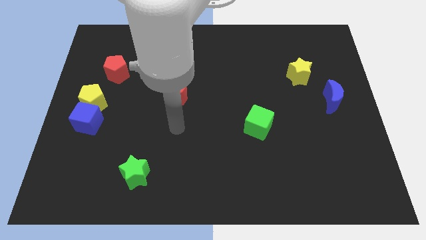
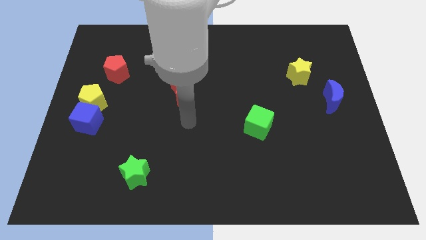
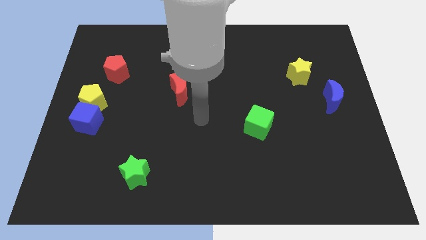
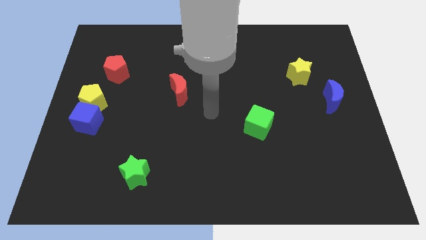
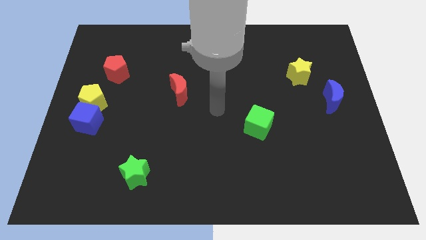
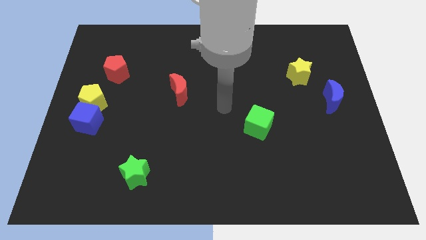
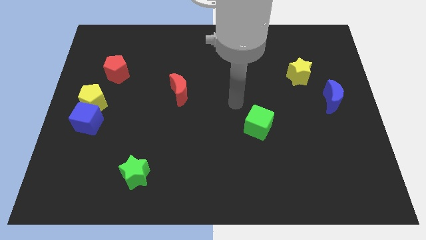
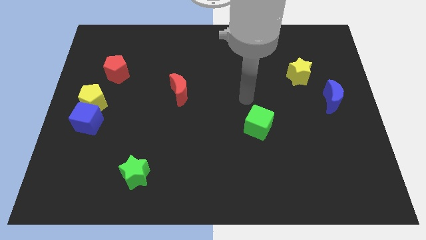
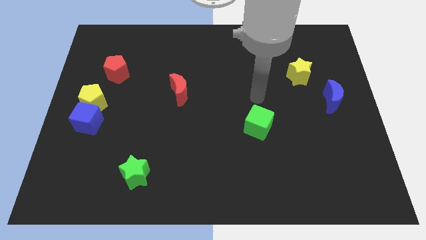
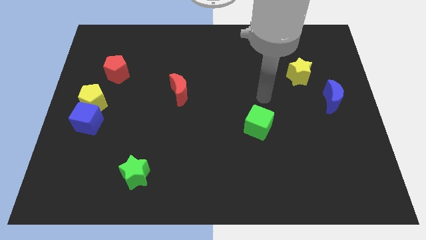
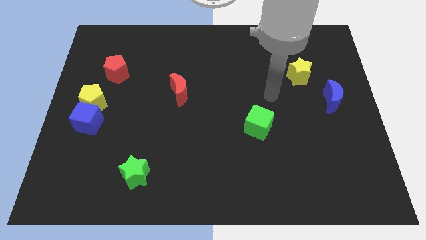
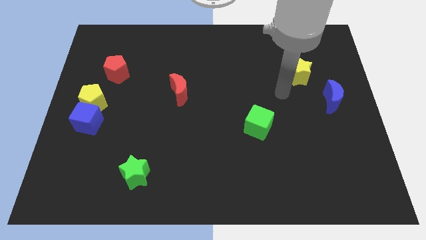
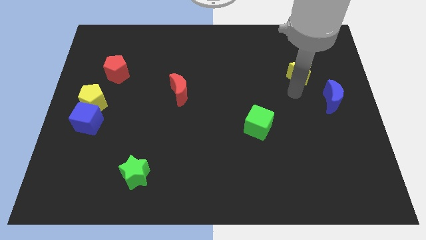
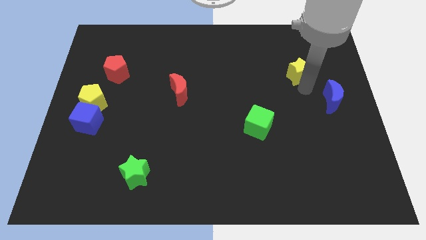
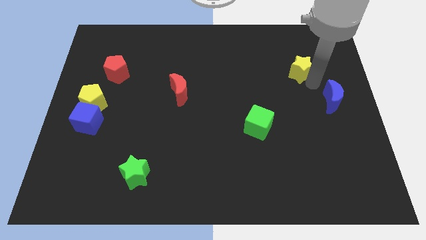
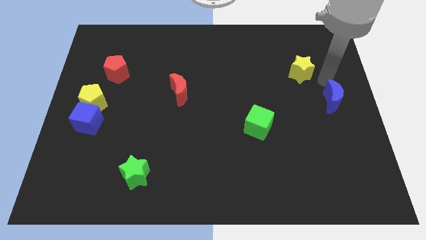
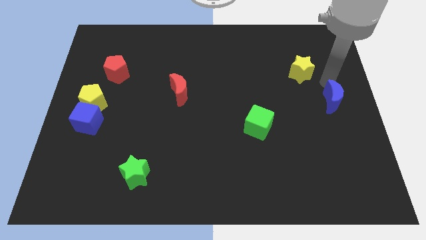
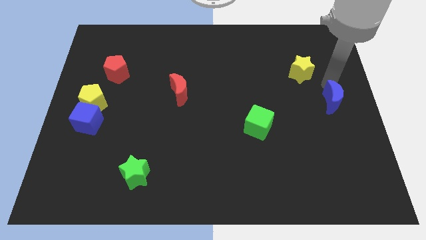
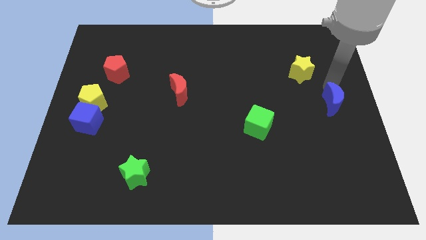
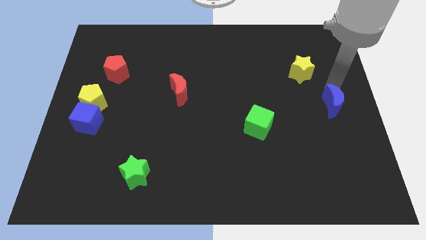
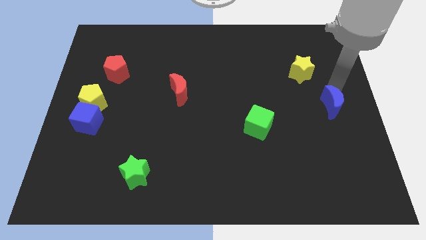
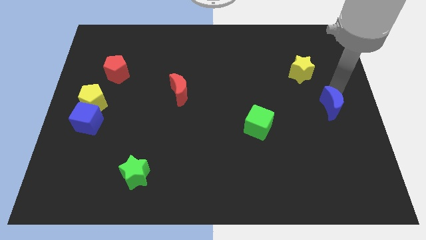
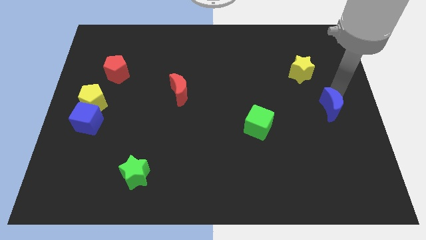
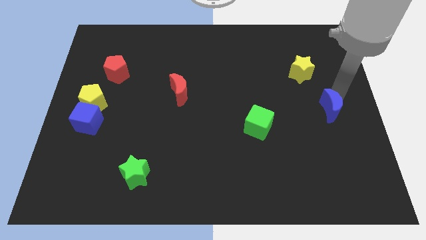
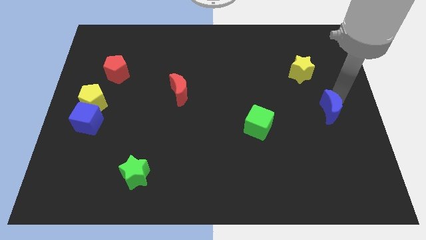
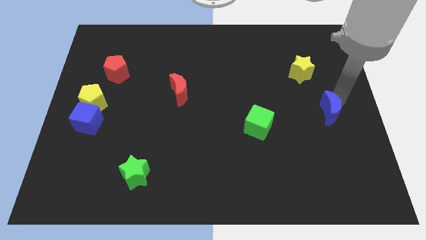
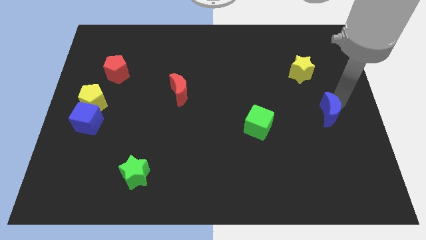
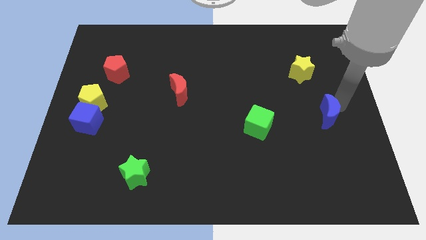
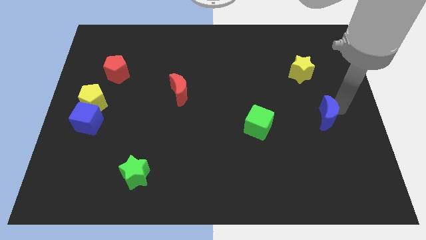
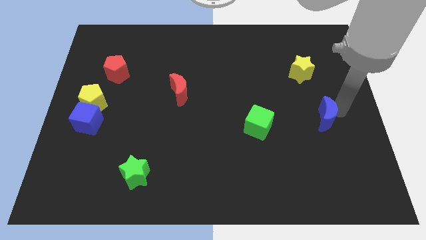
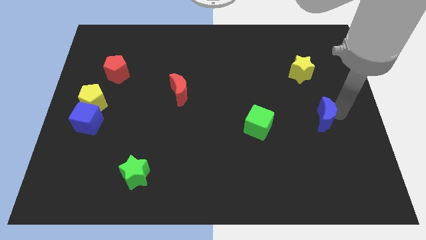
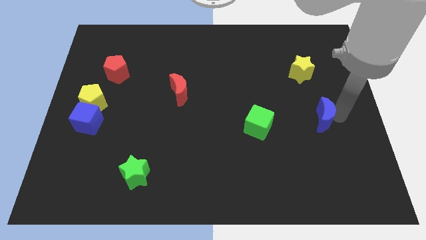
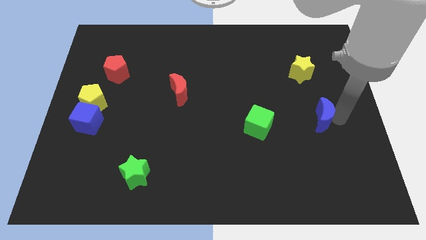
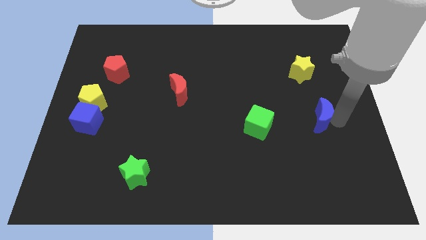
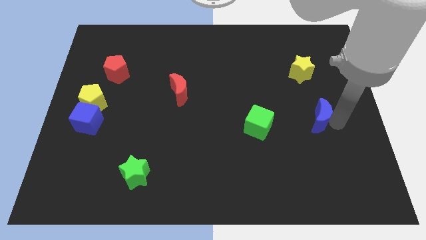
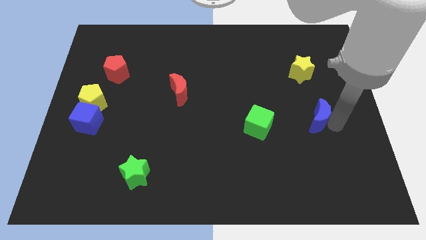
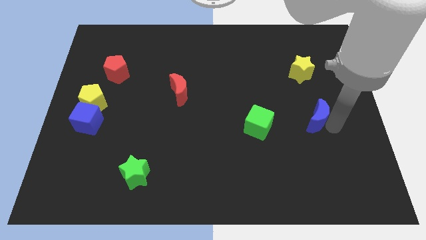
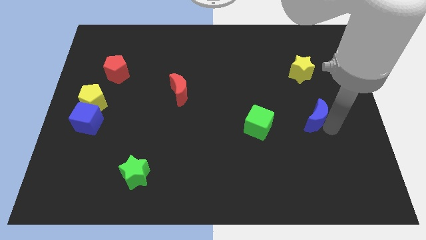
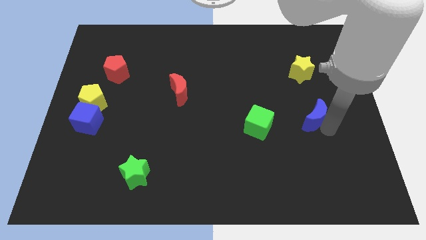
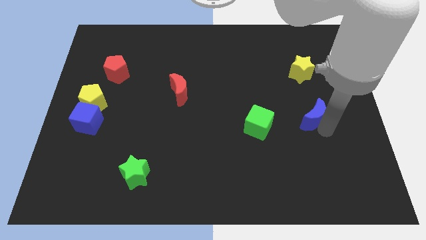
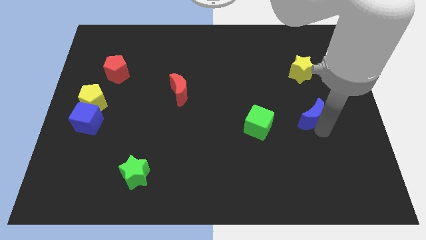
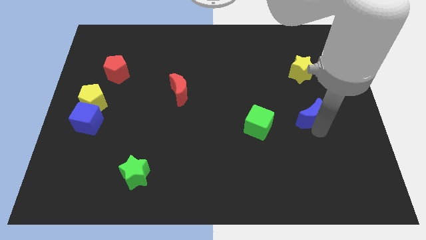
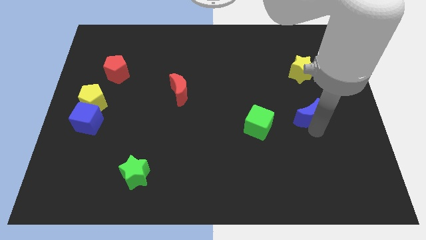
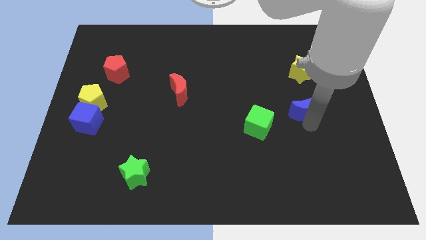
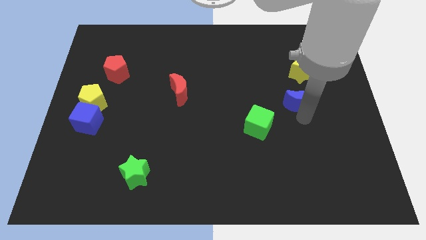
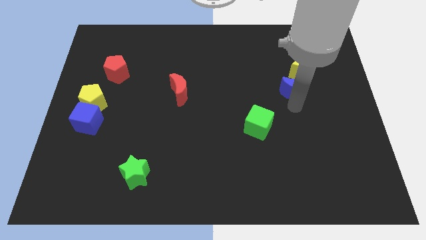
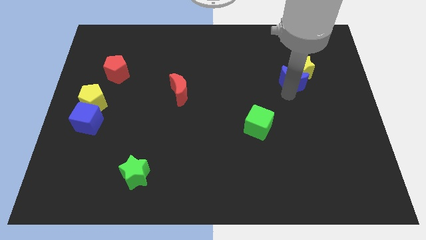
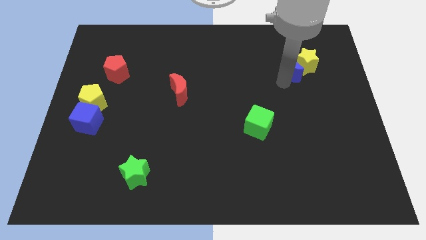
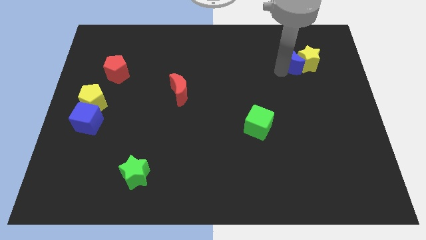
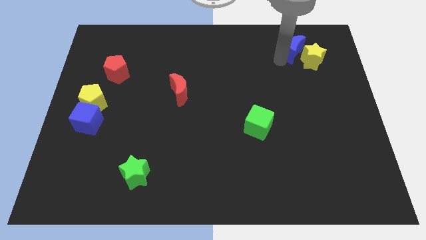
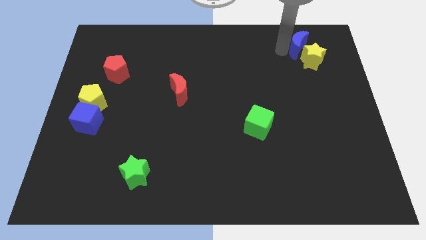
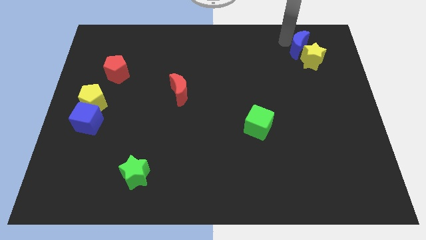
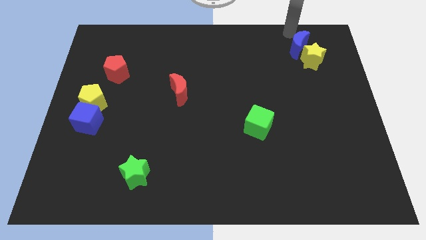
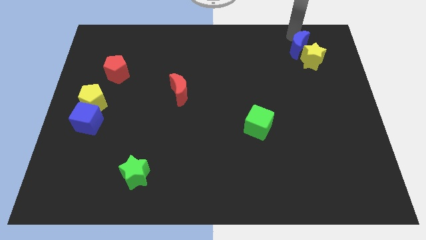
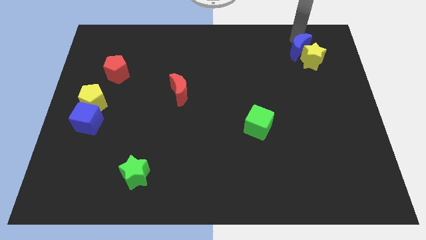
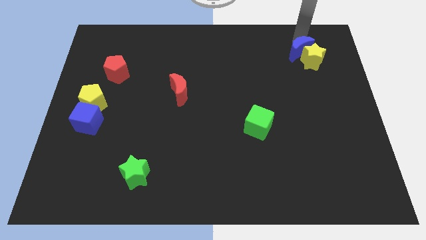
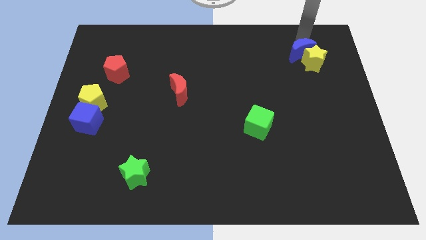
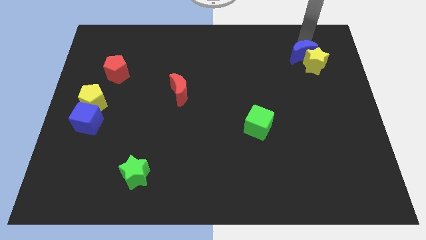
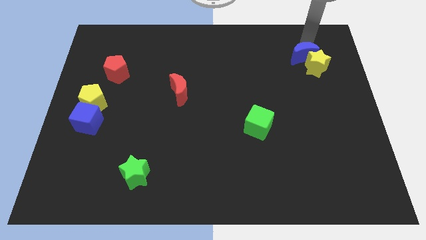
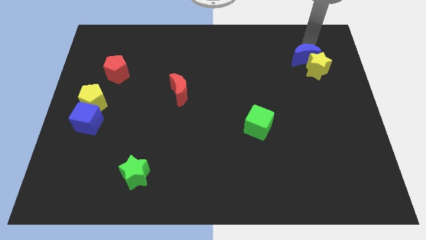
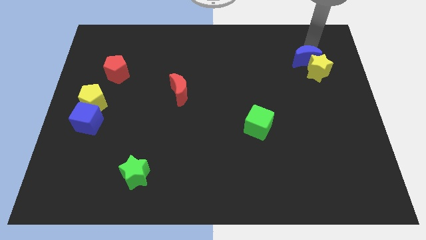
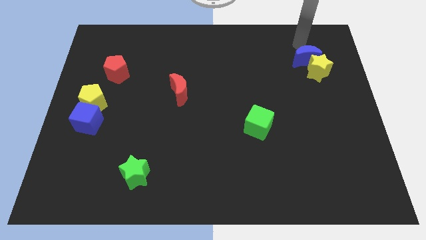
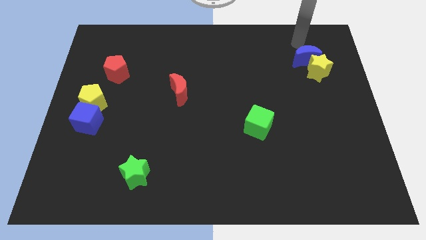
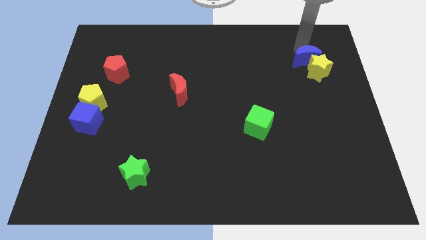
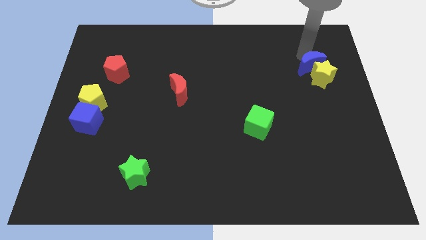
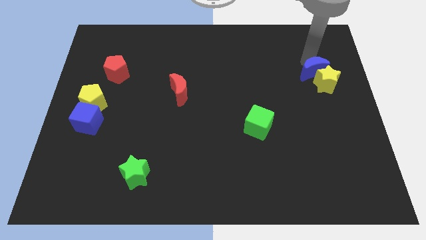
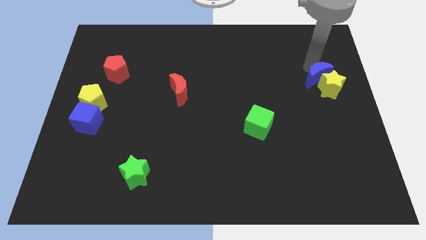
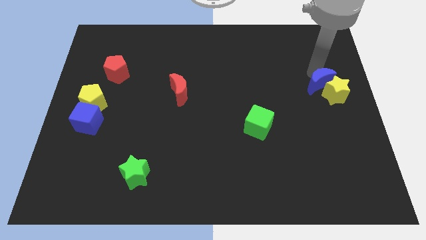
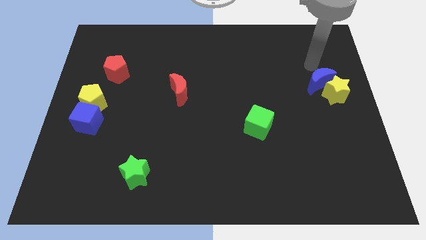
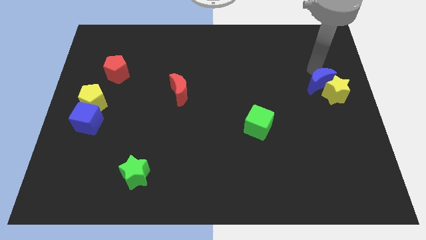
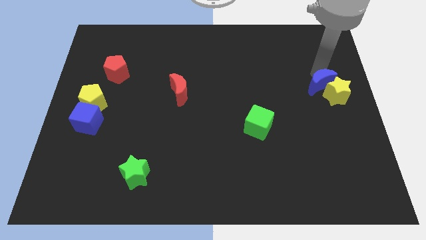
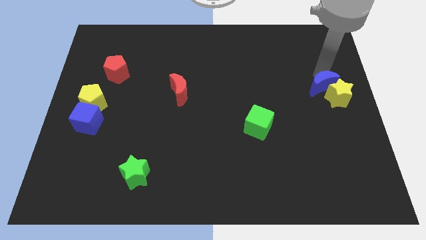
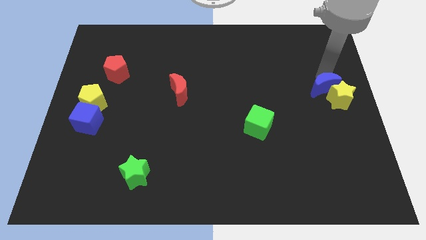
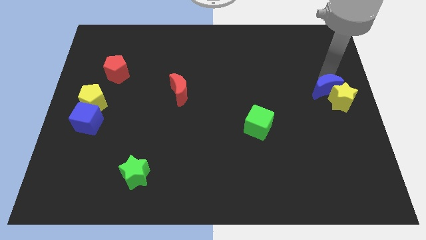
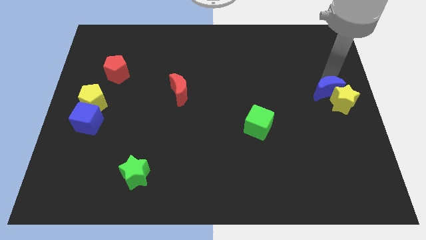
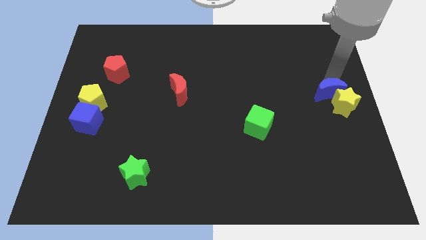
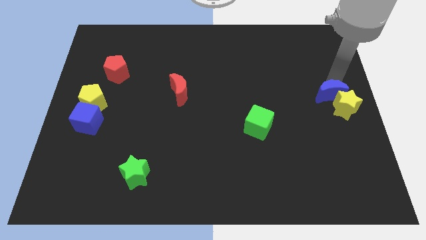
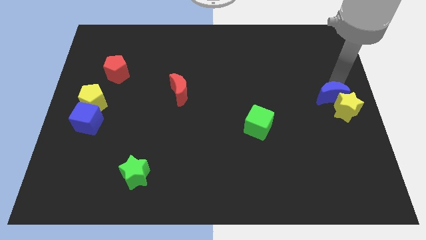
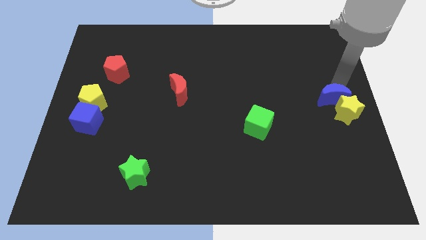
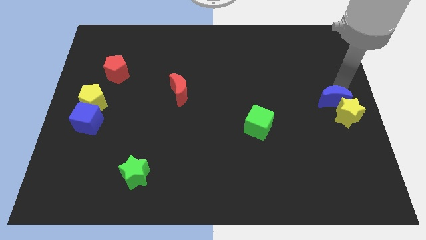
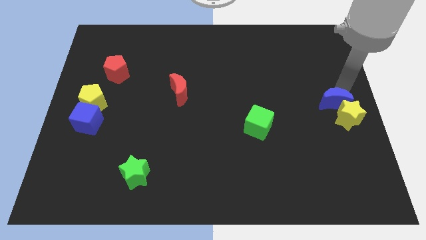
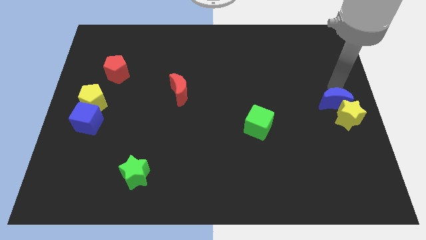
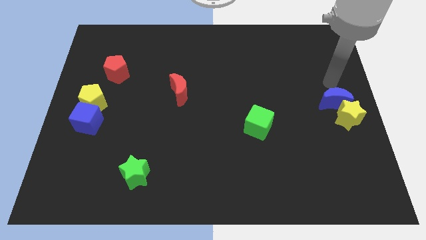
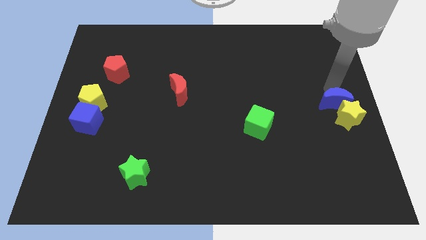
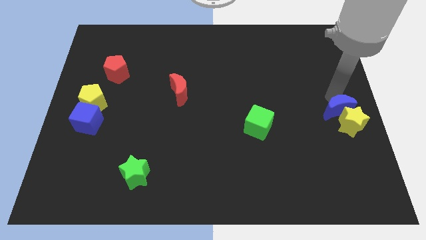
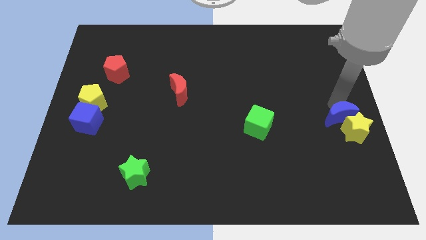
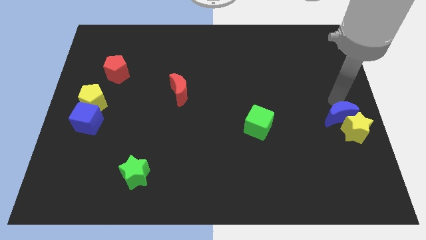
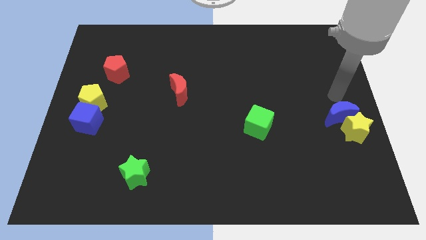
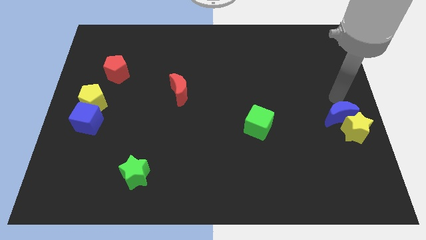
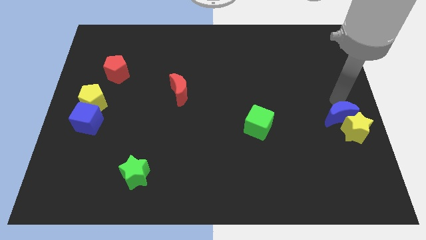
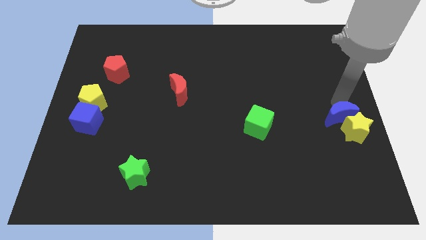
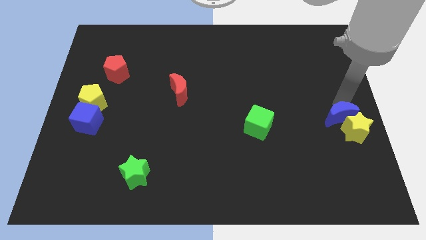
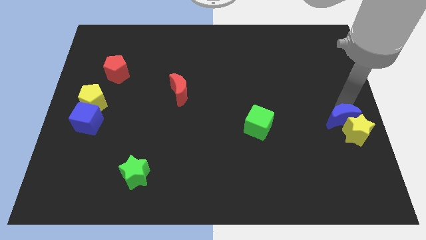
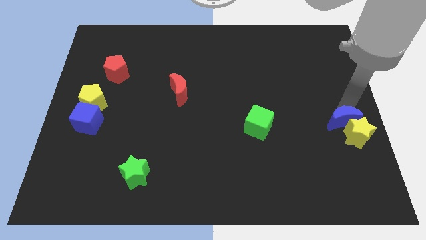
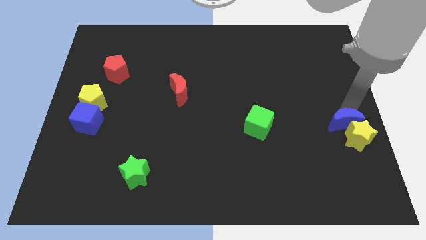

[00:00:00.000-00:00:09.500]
slide the blue moon somewhat down
